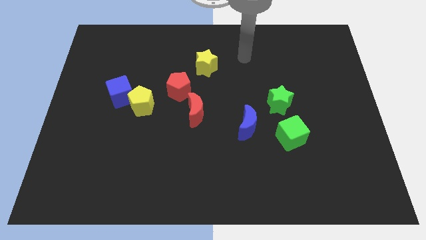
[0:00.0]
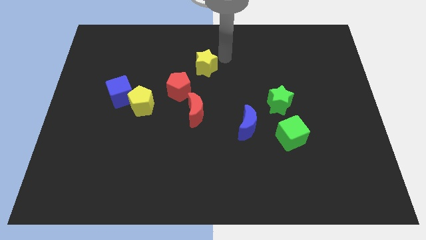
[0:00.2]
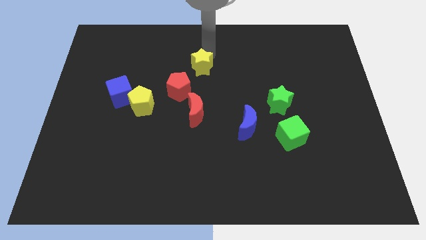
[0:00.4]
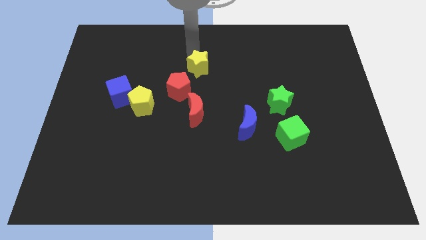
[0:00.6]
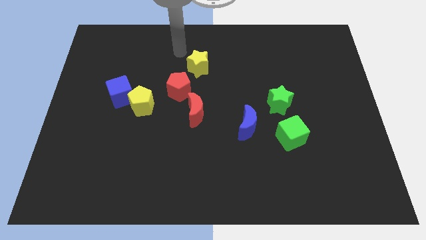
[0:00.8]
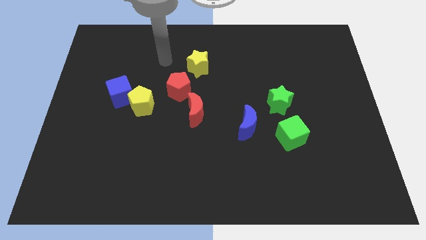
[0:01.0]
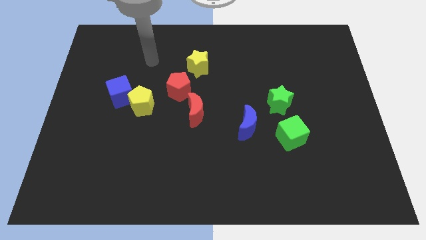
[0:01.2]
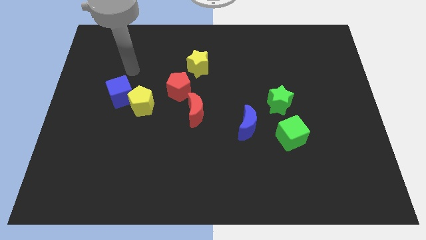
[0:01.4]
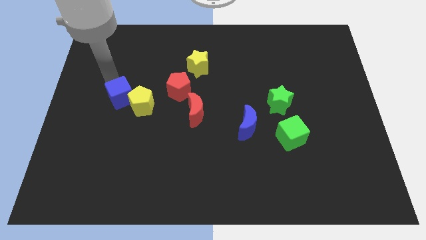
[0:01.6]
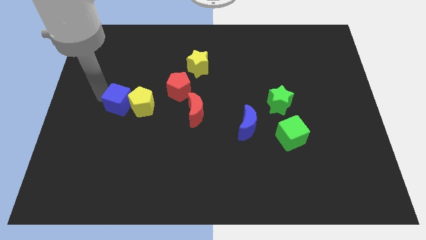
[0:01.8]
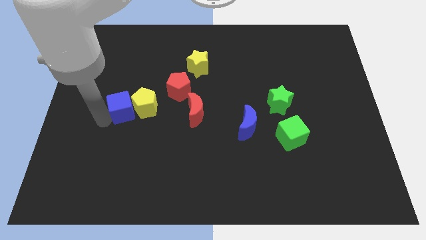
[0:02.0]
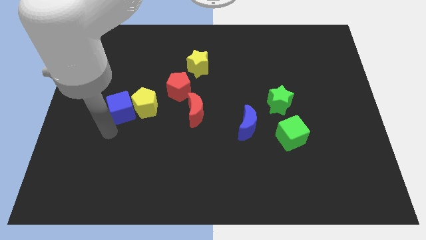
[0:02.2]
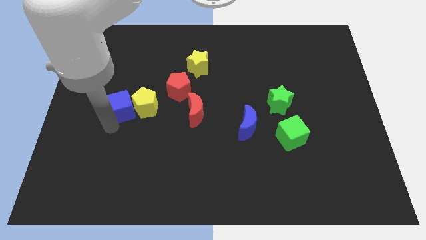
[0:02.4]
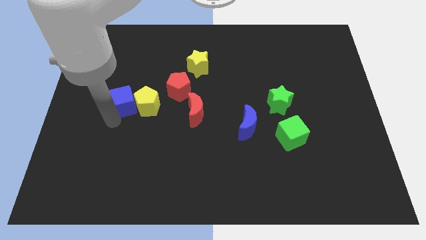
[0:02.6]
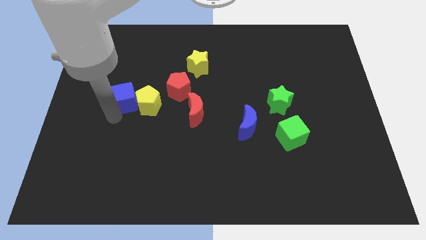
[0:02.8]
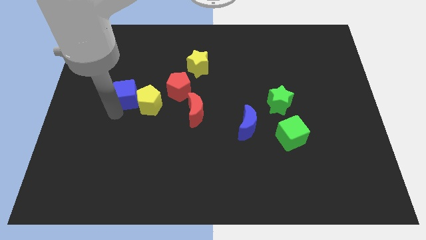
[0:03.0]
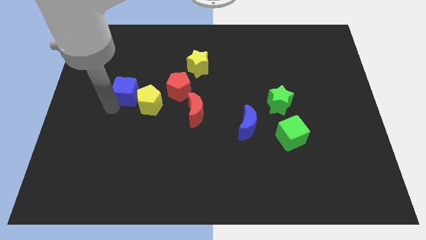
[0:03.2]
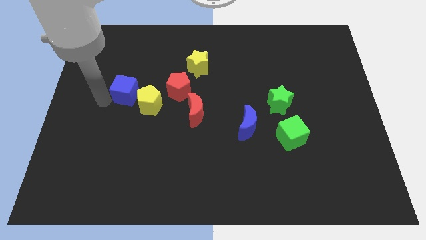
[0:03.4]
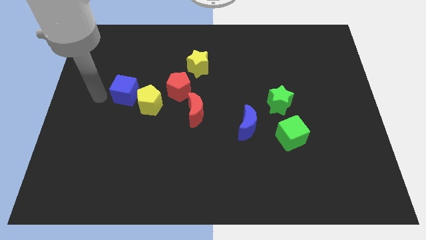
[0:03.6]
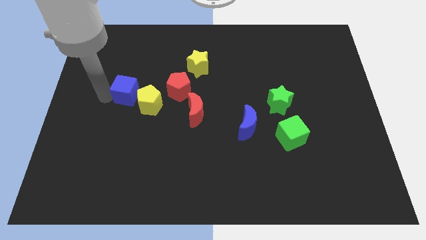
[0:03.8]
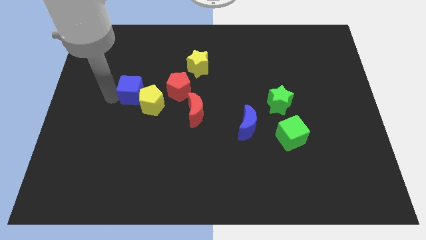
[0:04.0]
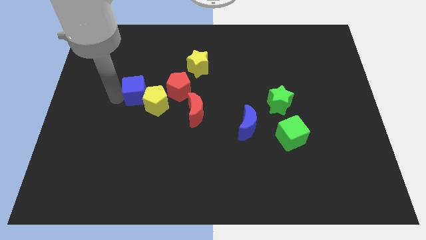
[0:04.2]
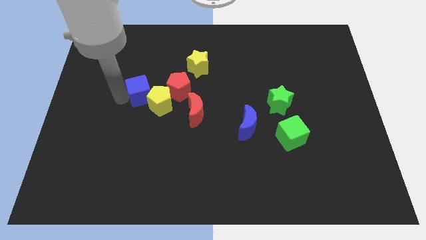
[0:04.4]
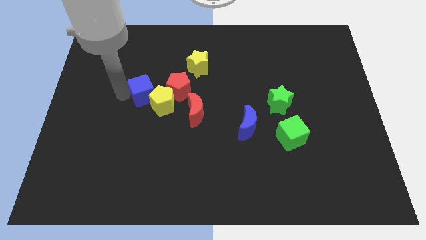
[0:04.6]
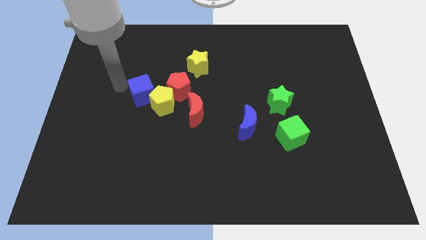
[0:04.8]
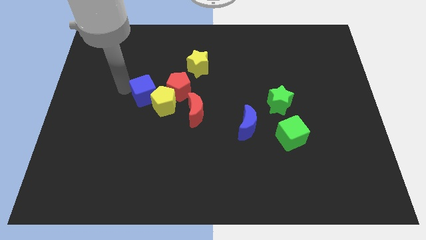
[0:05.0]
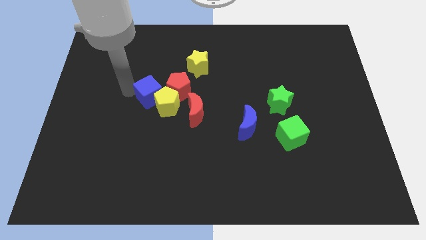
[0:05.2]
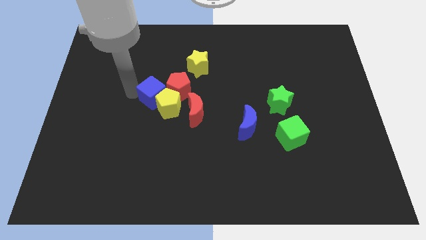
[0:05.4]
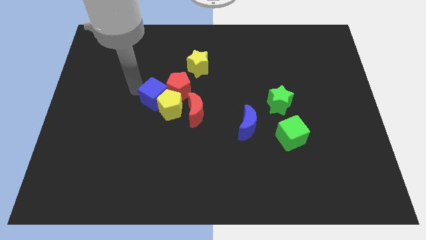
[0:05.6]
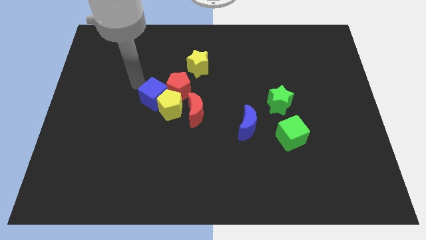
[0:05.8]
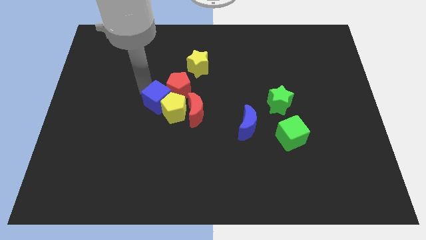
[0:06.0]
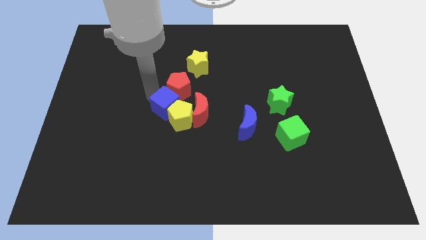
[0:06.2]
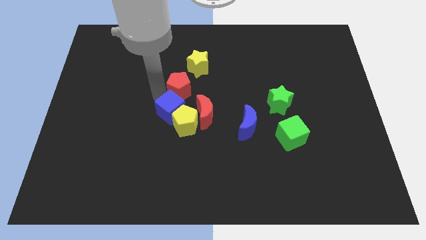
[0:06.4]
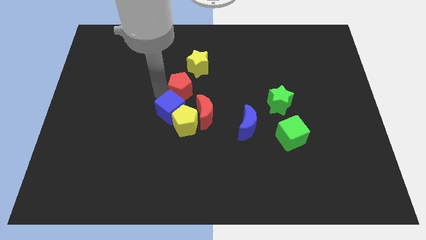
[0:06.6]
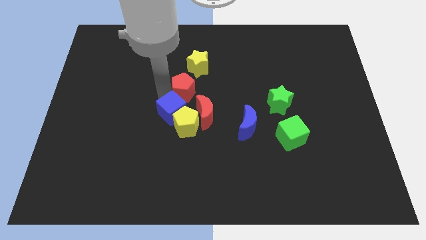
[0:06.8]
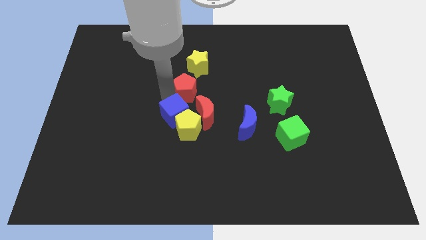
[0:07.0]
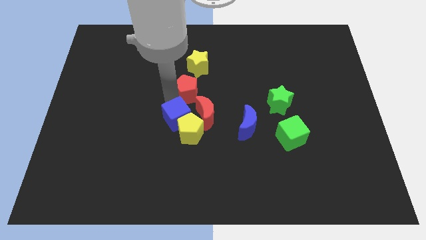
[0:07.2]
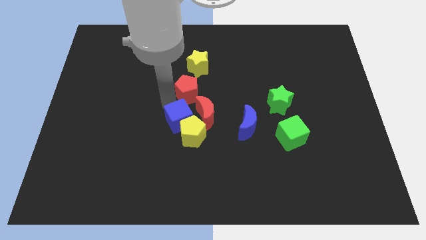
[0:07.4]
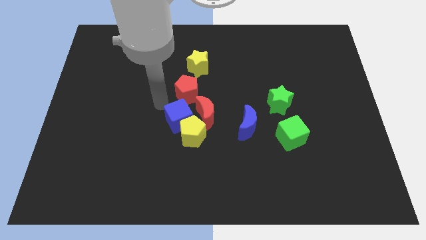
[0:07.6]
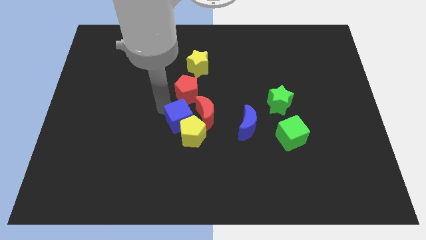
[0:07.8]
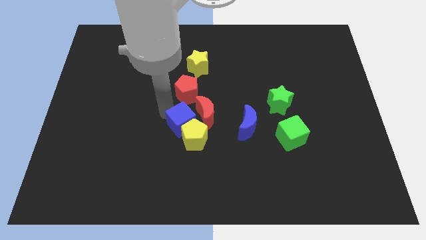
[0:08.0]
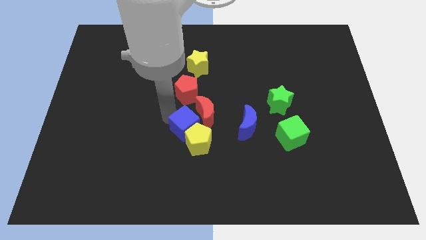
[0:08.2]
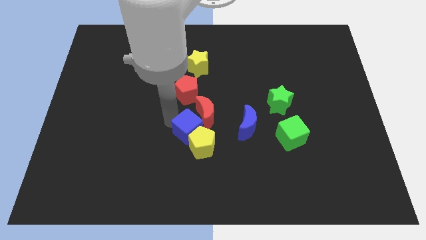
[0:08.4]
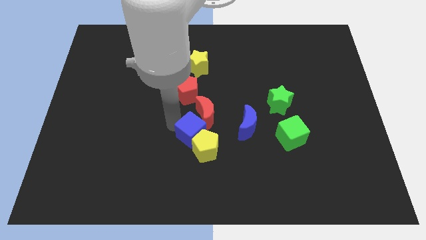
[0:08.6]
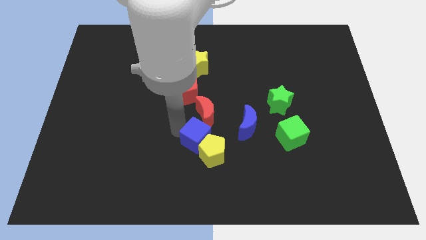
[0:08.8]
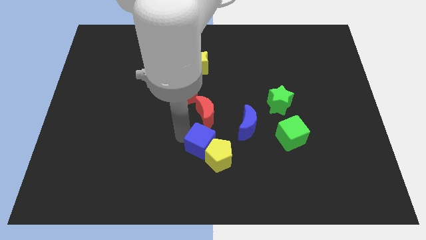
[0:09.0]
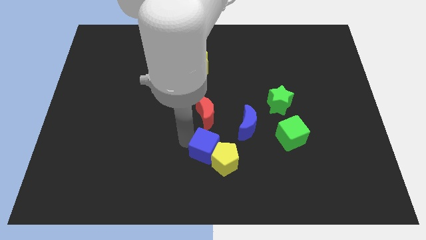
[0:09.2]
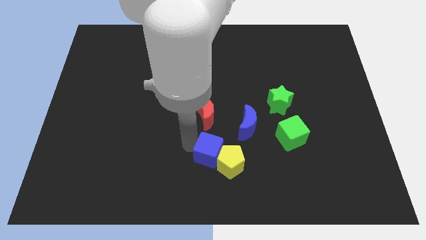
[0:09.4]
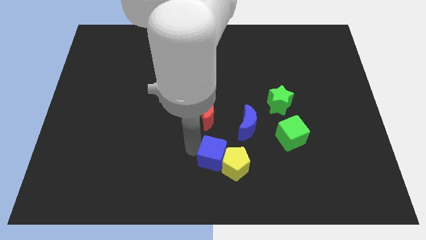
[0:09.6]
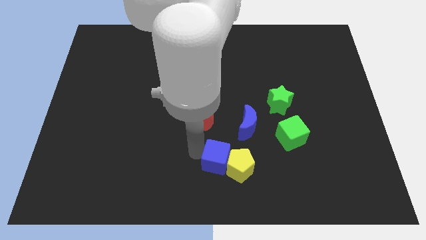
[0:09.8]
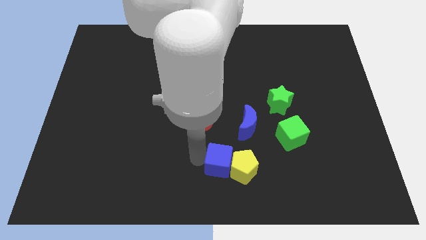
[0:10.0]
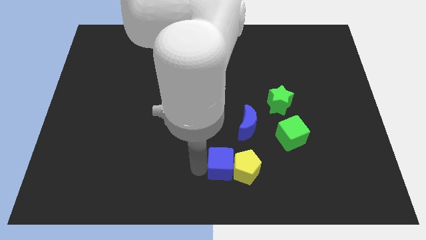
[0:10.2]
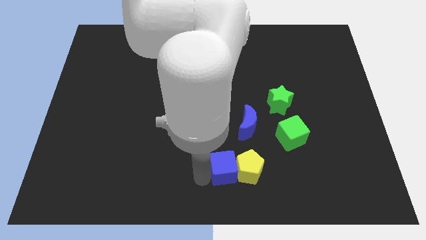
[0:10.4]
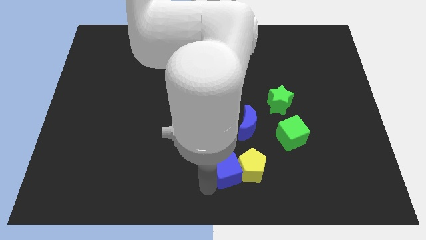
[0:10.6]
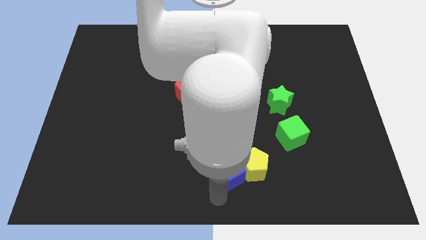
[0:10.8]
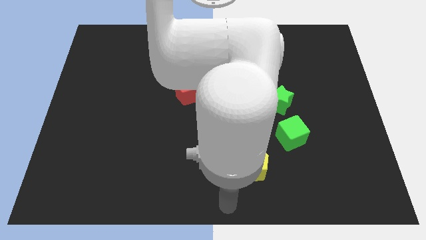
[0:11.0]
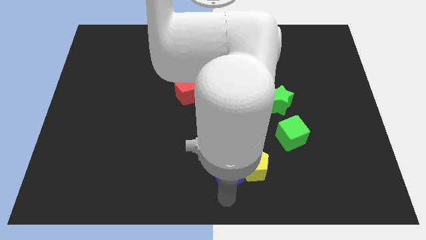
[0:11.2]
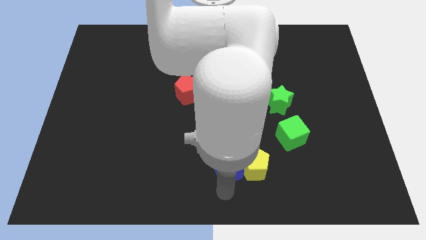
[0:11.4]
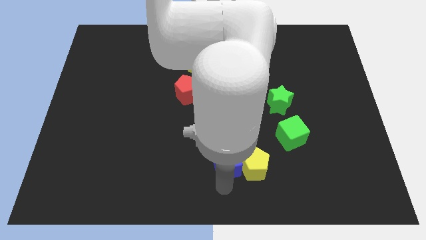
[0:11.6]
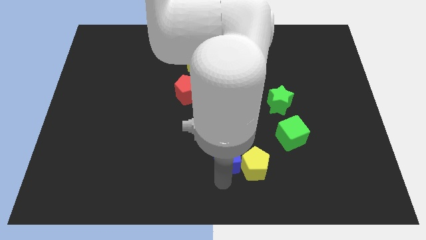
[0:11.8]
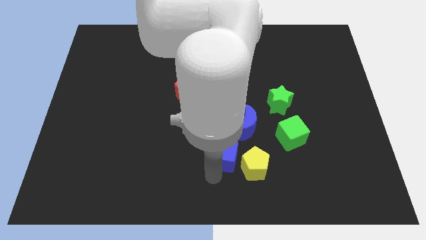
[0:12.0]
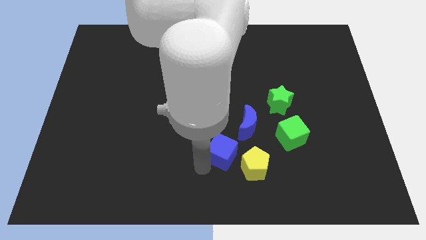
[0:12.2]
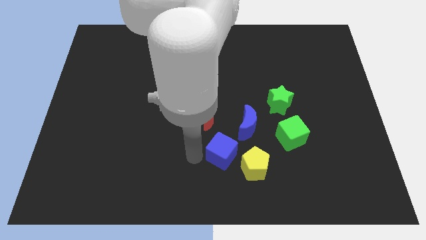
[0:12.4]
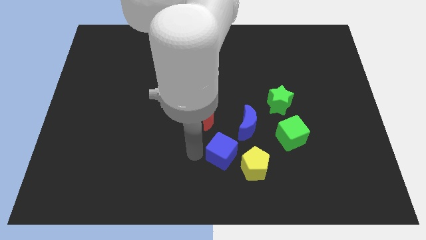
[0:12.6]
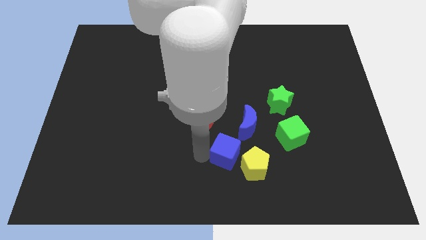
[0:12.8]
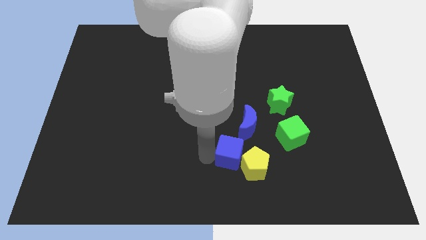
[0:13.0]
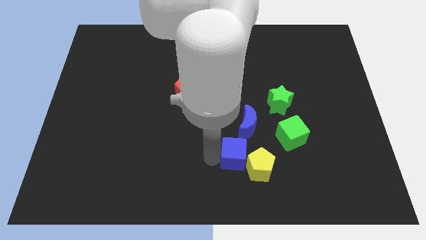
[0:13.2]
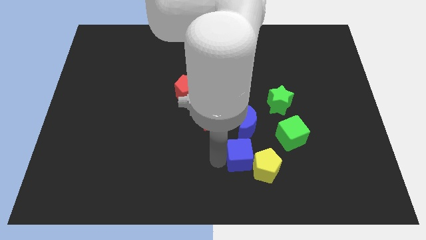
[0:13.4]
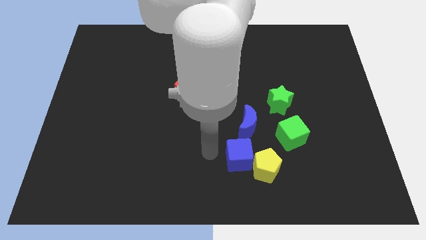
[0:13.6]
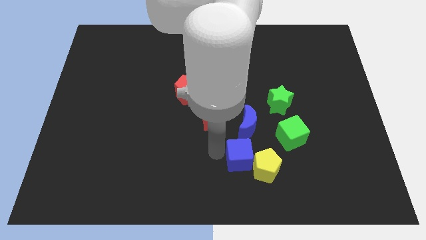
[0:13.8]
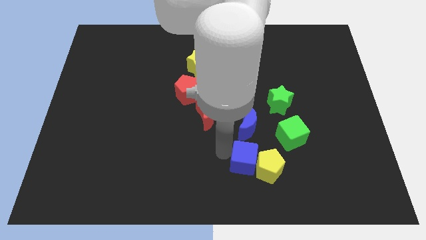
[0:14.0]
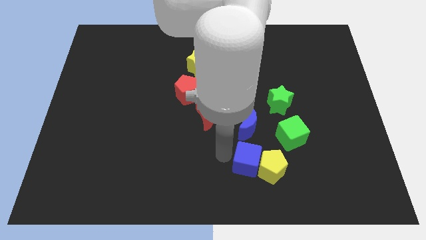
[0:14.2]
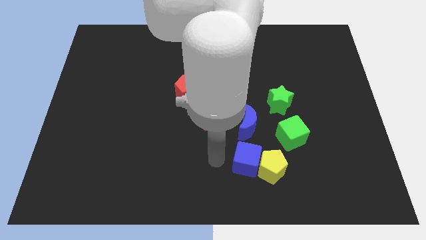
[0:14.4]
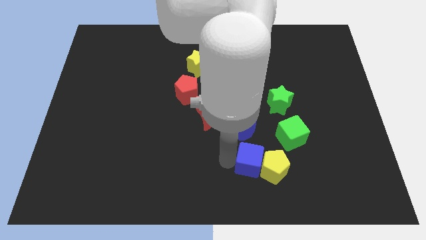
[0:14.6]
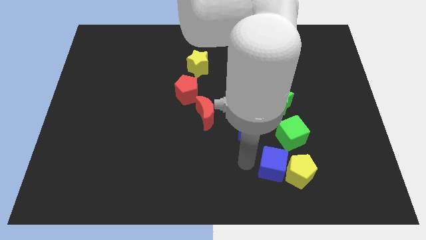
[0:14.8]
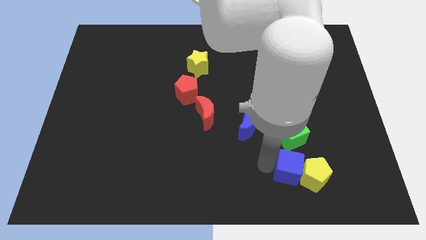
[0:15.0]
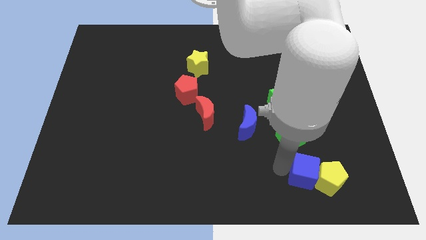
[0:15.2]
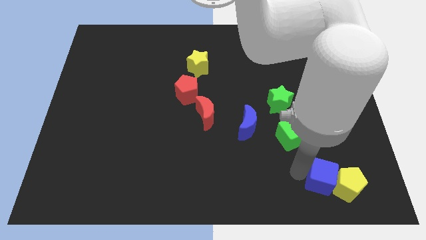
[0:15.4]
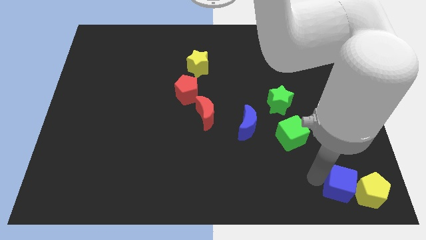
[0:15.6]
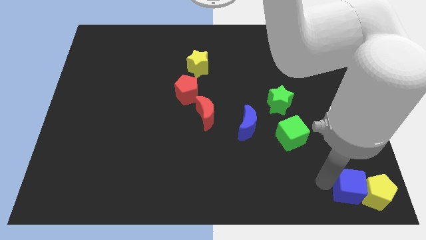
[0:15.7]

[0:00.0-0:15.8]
put the blue cube to the lower right corner

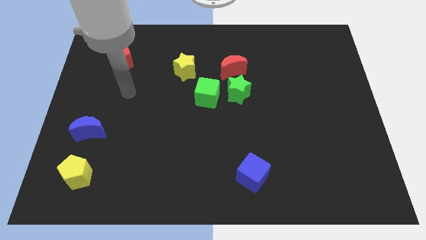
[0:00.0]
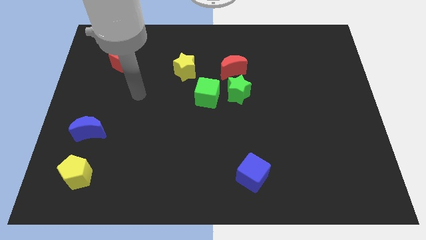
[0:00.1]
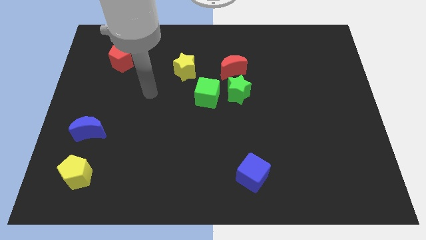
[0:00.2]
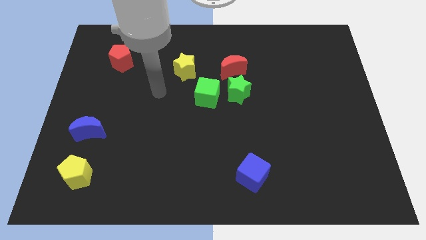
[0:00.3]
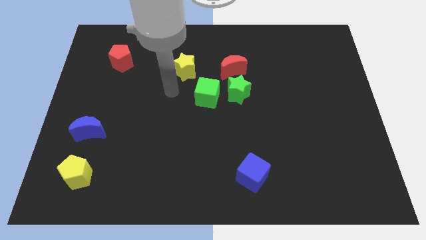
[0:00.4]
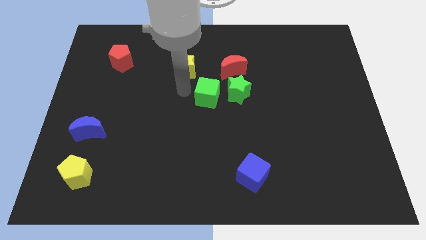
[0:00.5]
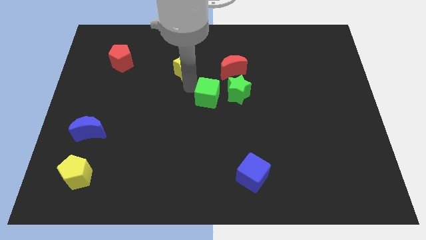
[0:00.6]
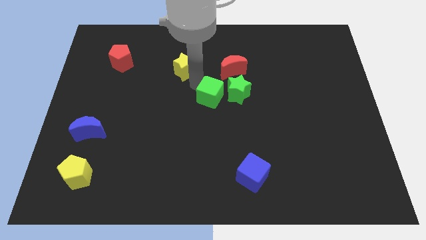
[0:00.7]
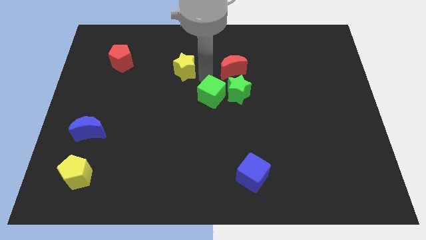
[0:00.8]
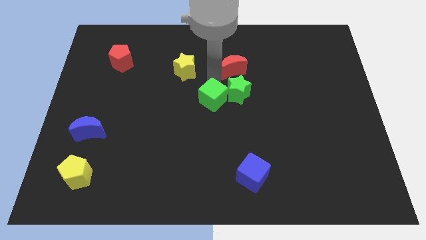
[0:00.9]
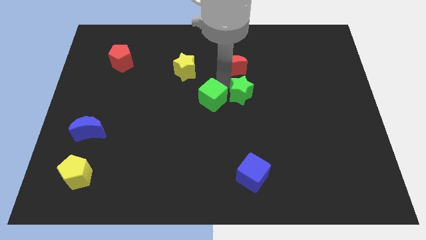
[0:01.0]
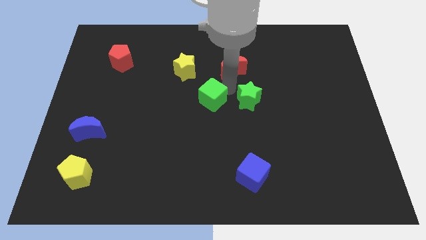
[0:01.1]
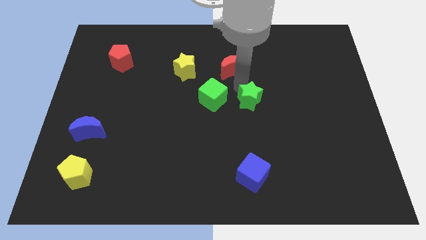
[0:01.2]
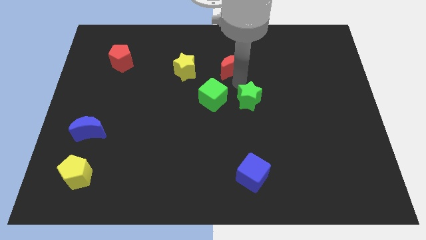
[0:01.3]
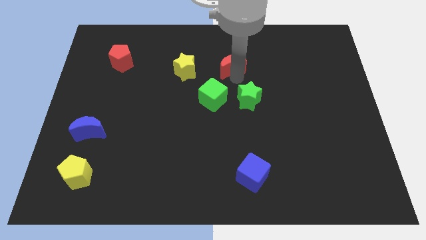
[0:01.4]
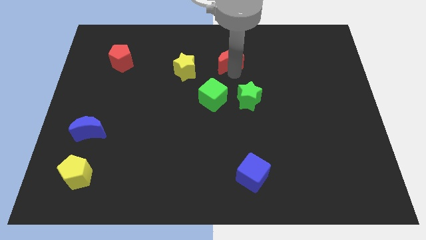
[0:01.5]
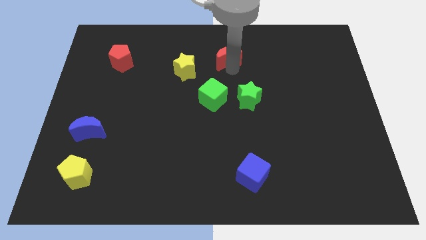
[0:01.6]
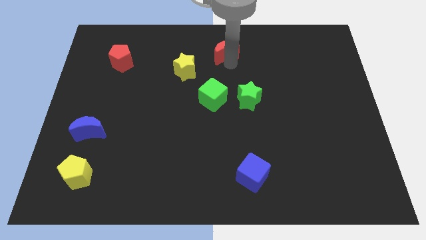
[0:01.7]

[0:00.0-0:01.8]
push the red moon to the top side
